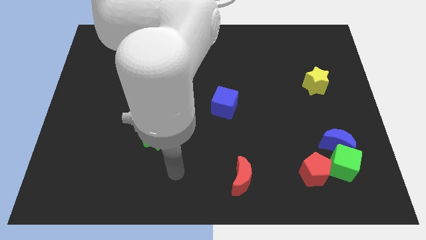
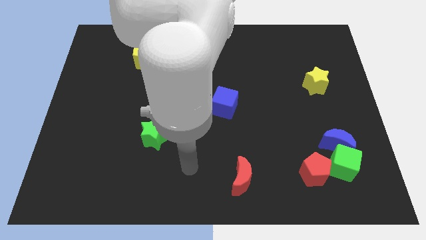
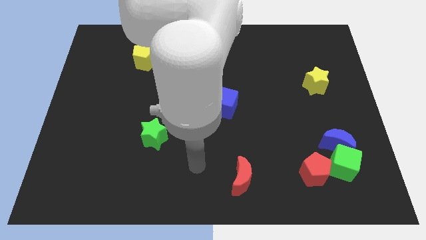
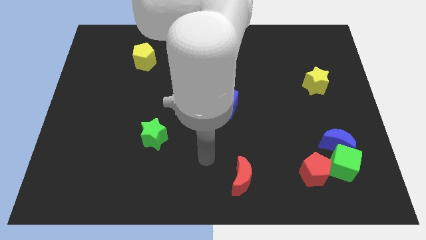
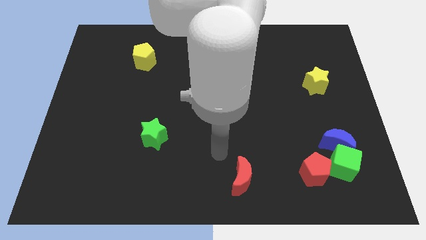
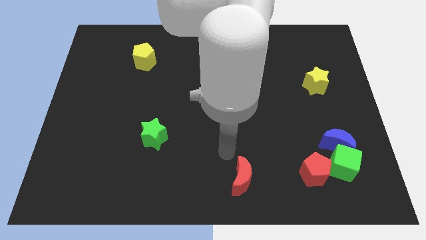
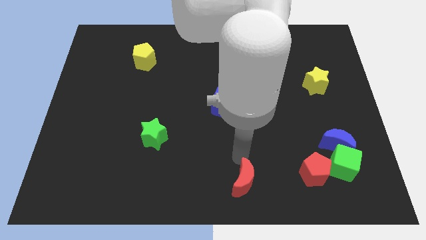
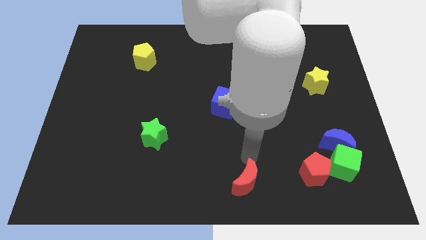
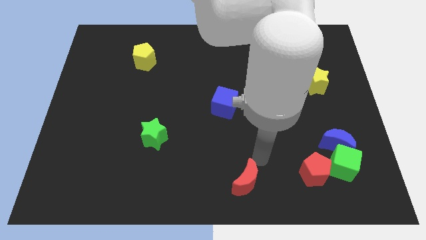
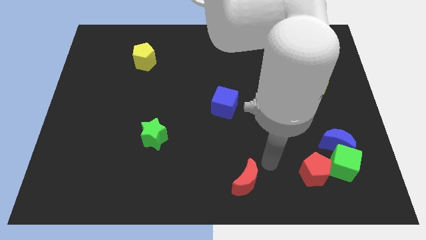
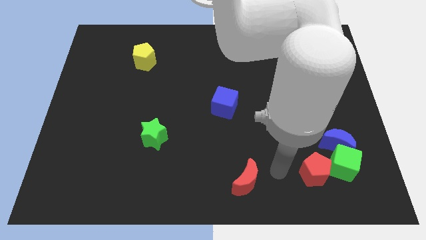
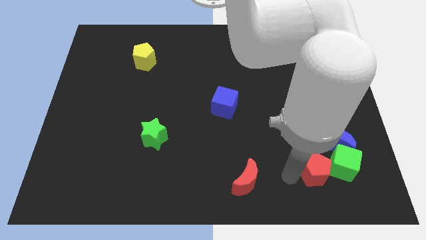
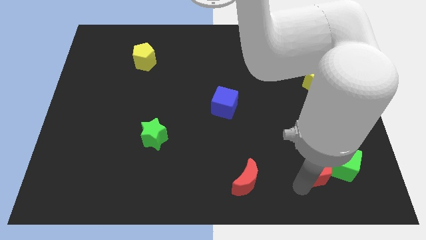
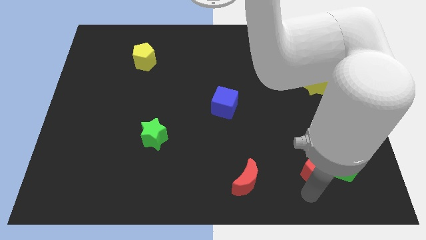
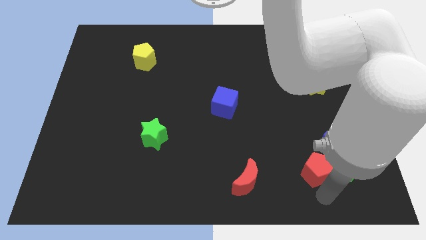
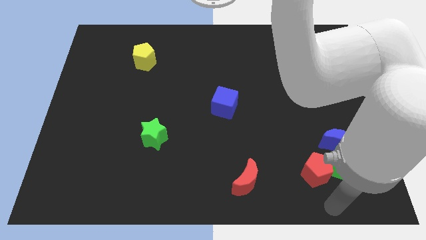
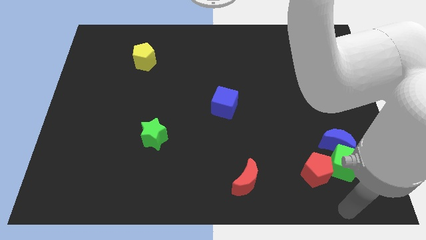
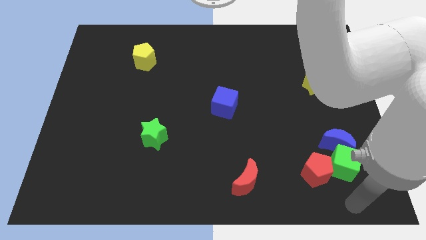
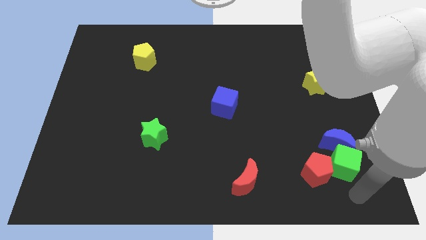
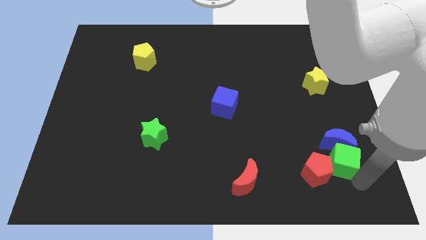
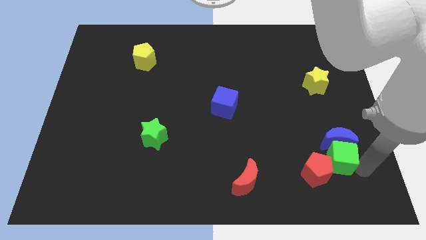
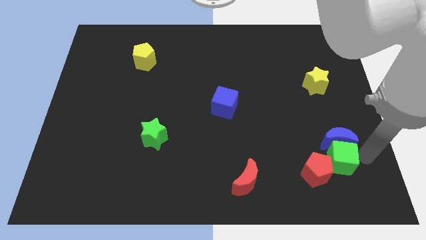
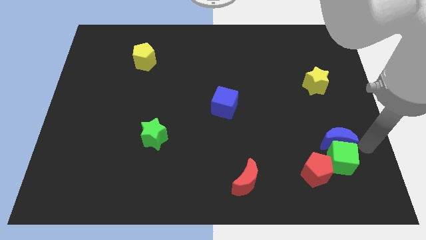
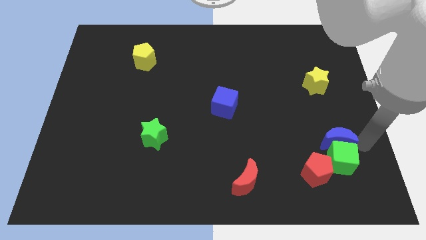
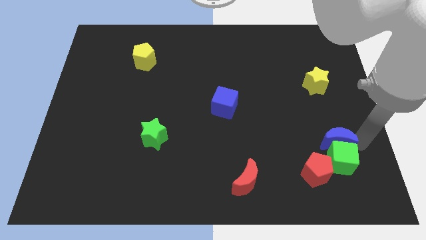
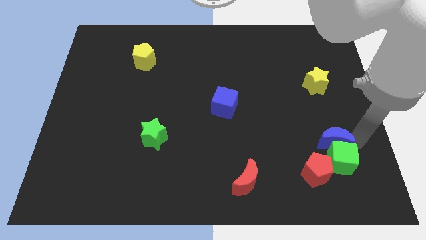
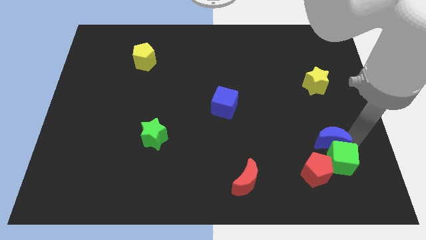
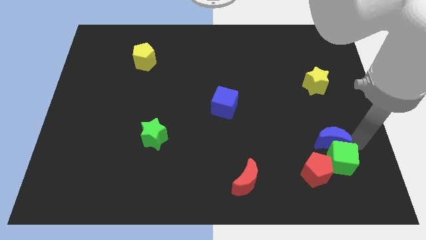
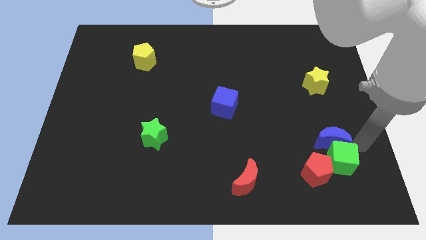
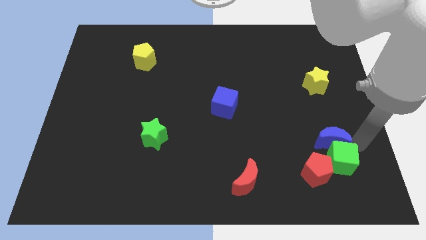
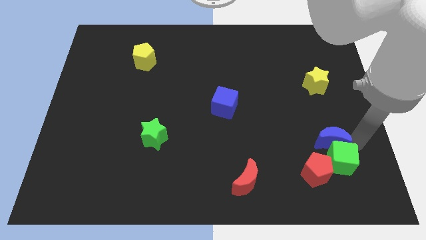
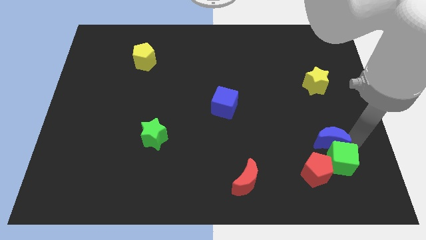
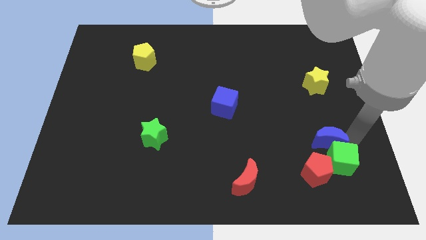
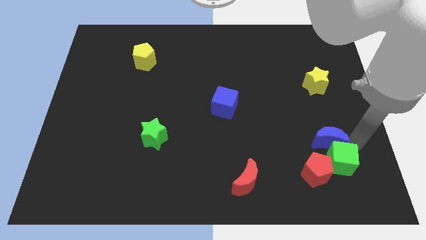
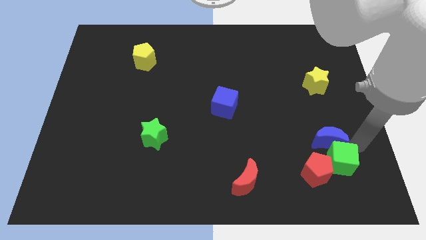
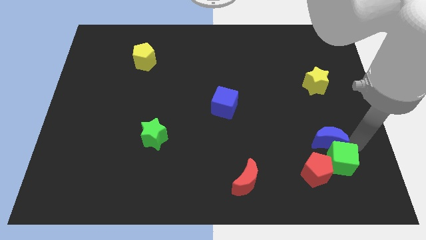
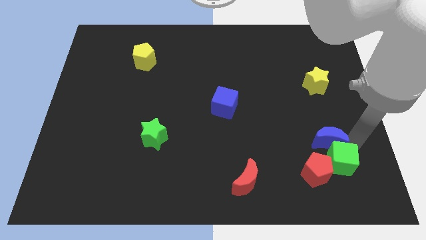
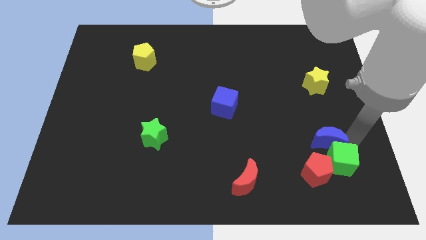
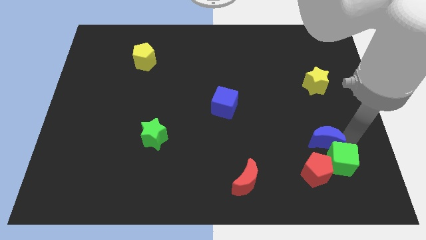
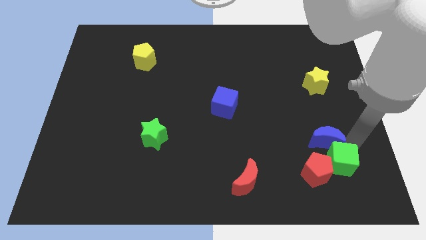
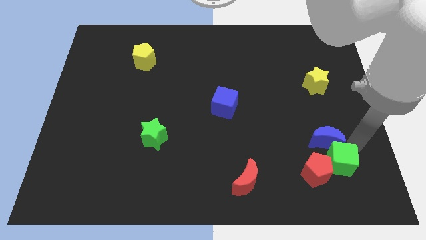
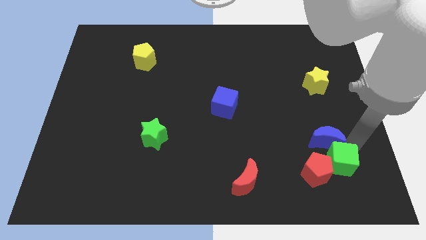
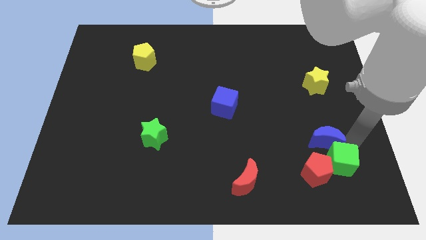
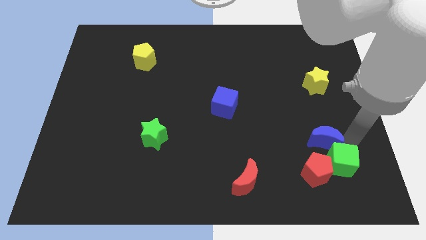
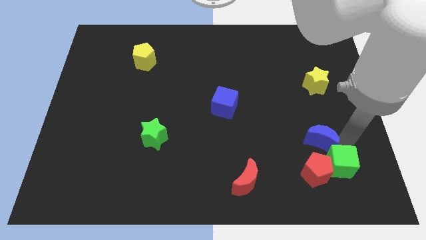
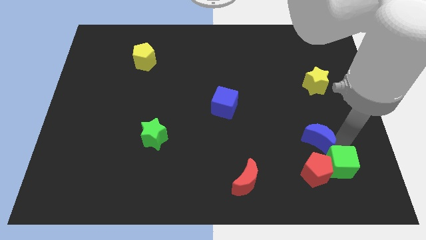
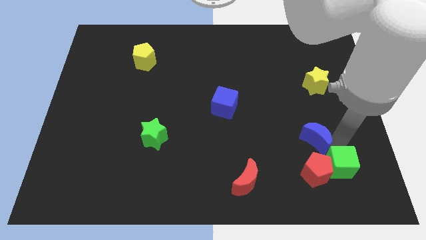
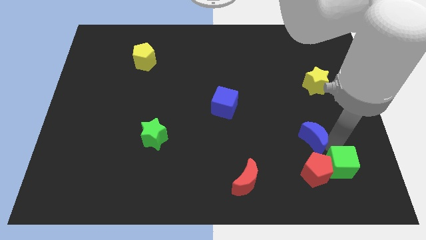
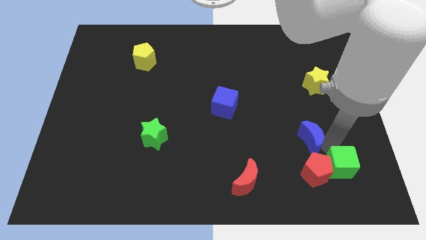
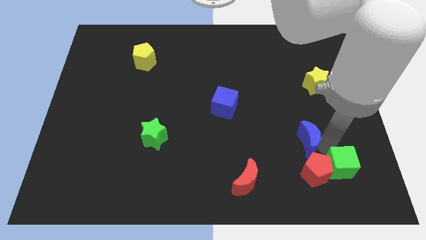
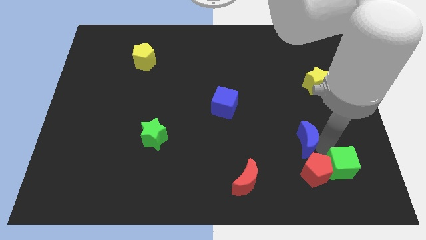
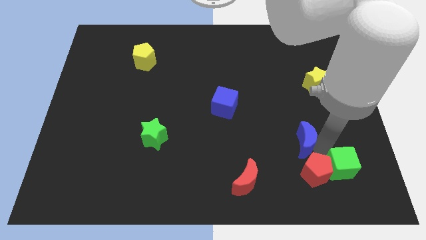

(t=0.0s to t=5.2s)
slightly move the blue moon to the left

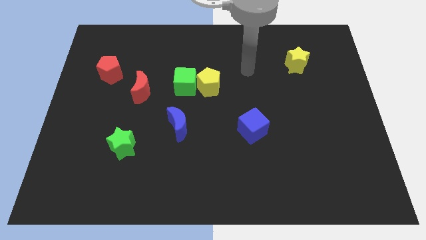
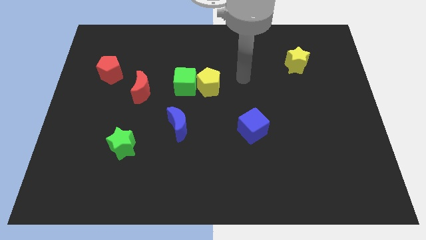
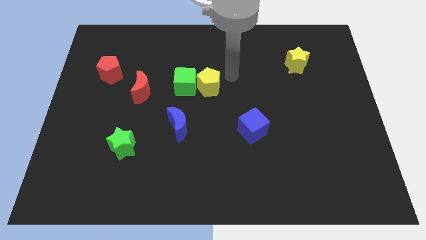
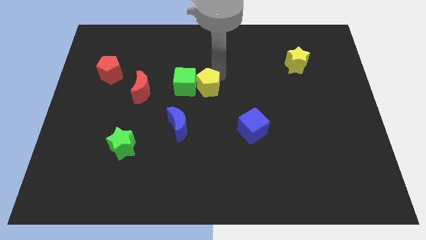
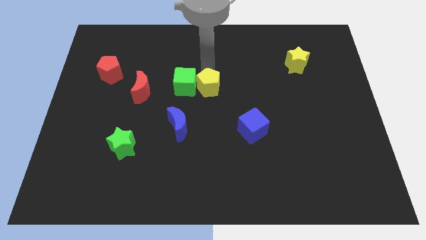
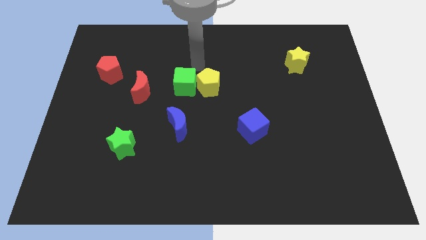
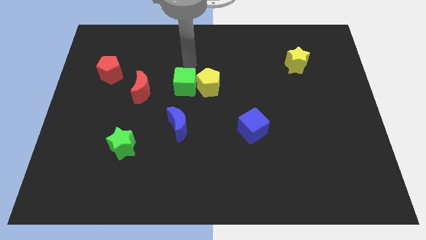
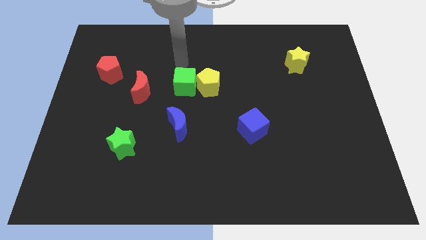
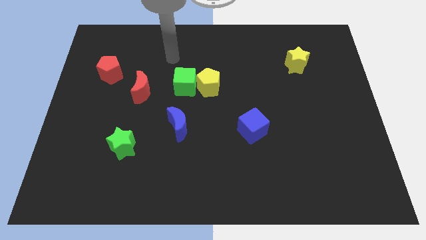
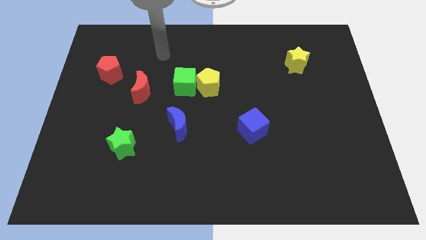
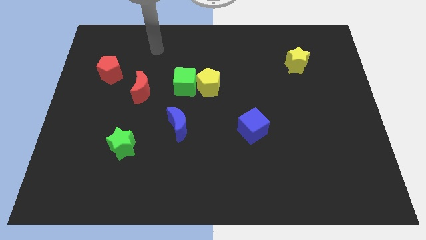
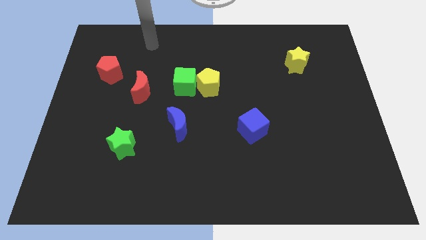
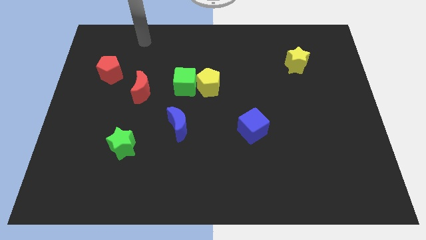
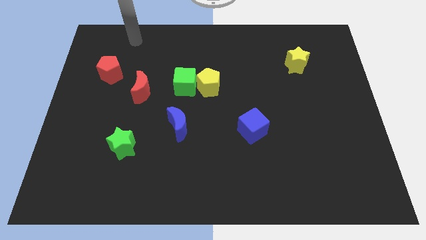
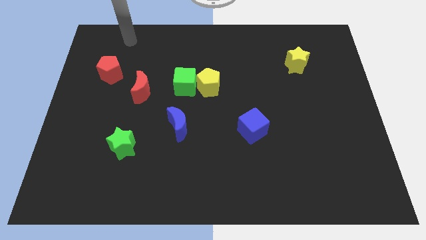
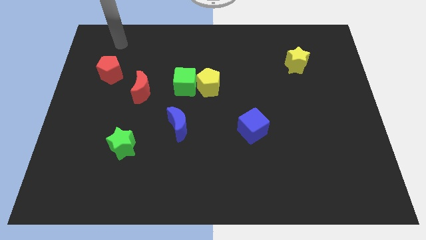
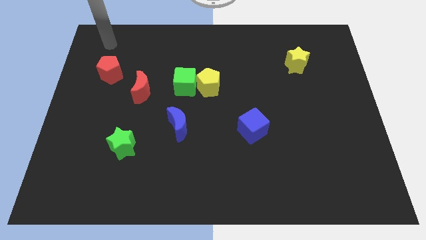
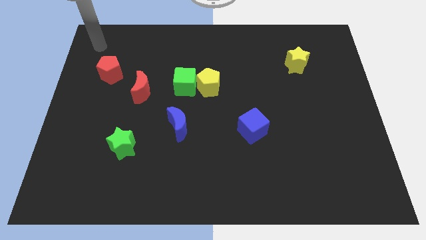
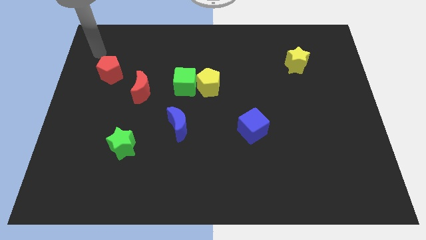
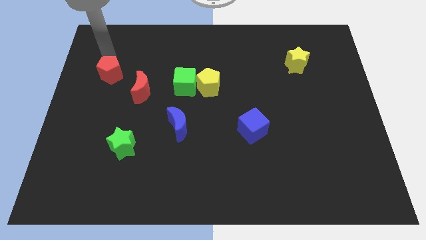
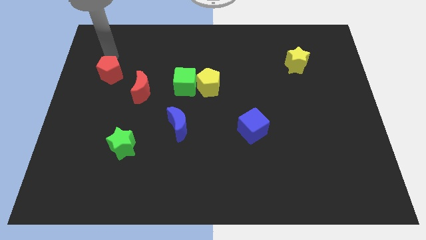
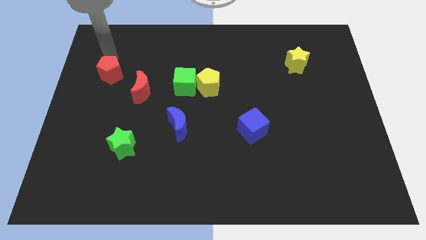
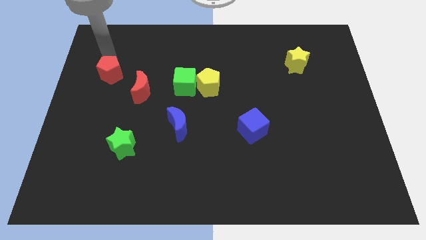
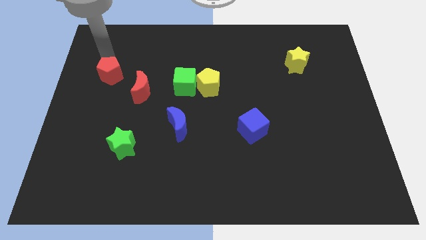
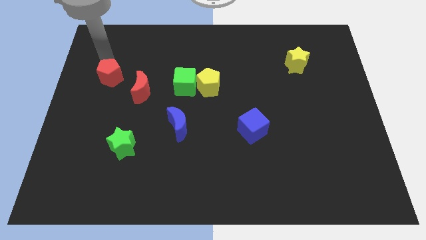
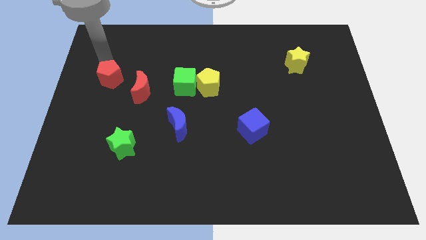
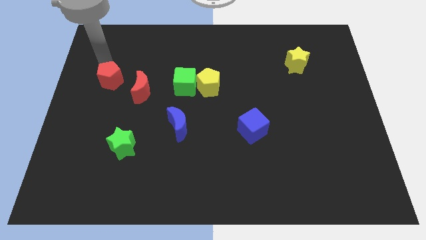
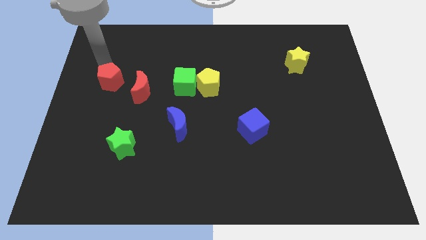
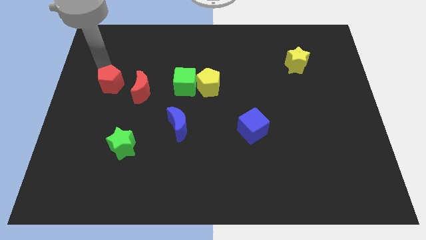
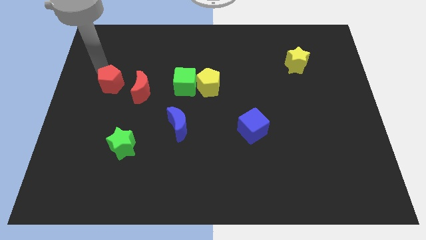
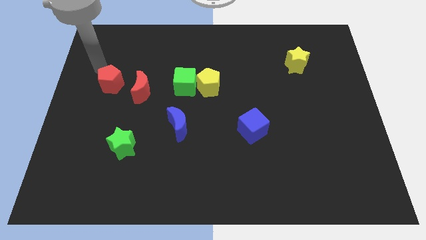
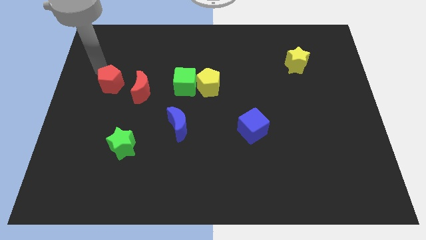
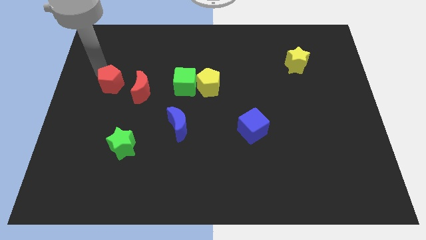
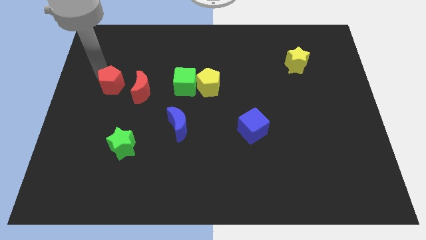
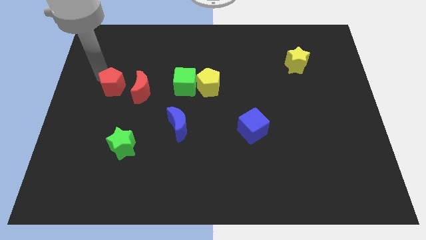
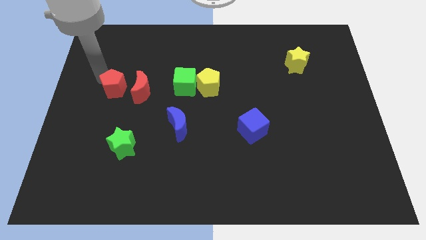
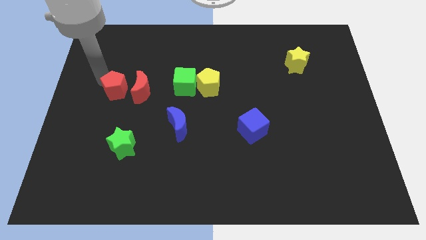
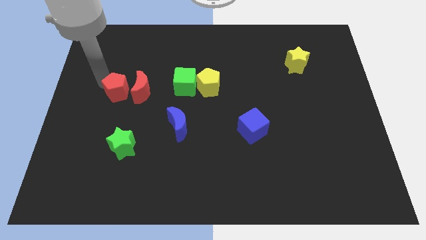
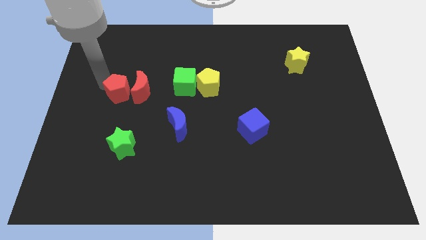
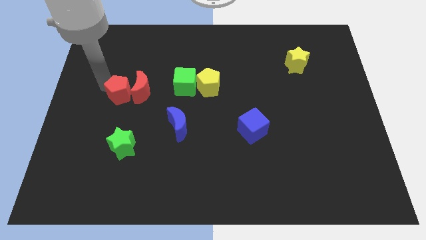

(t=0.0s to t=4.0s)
move the red pentagon a bit diagonally down and to the right
